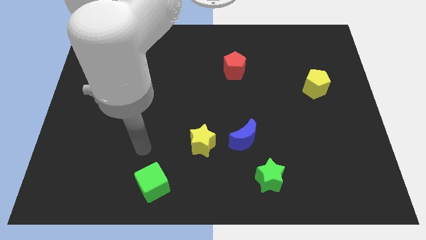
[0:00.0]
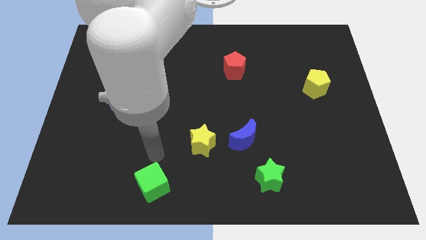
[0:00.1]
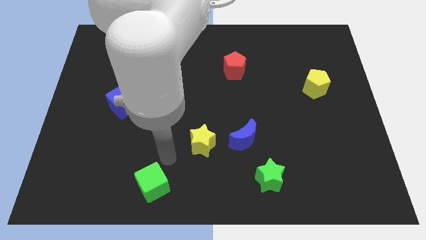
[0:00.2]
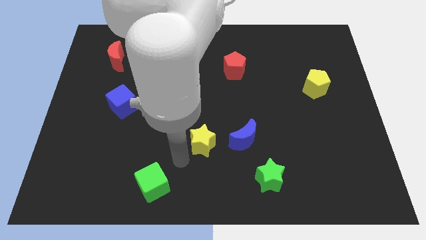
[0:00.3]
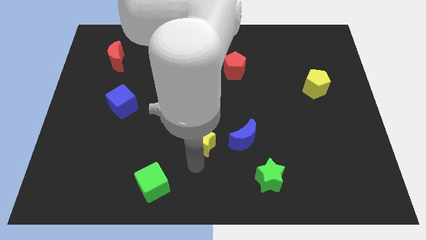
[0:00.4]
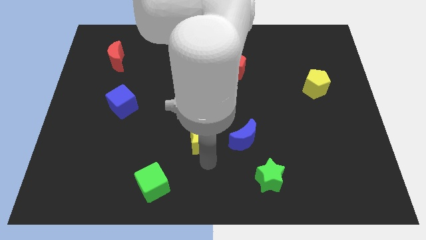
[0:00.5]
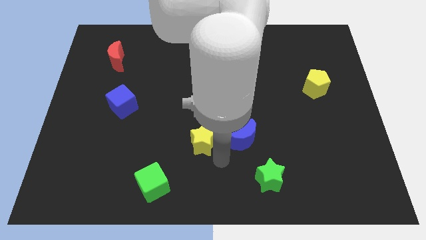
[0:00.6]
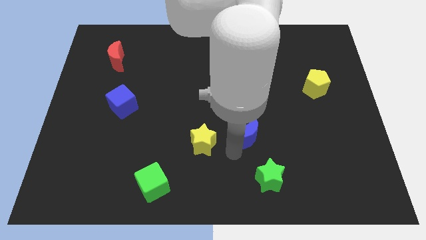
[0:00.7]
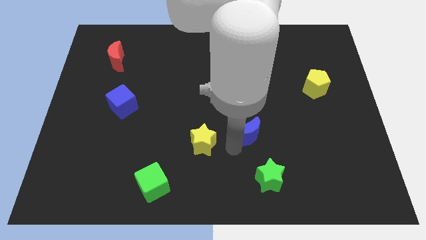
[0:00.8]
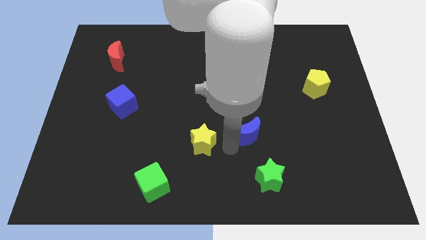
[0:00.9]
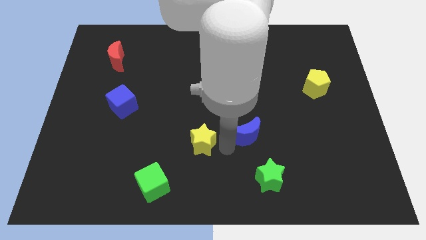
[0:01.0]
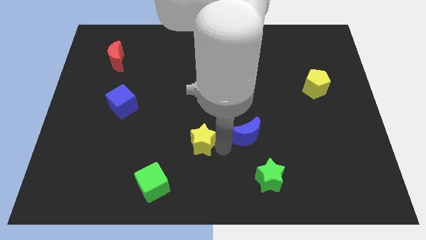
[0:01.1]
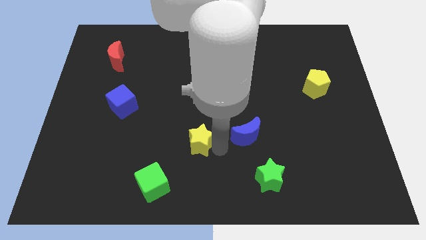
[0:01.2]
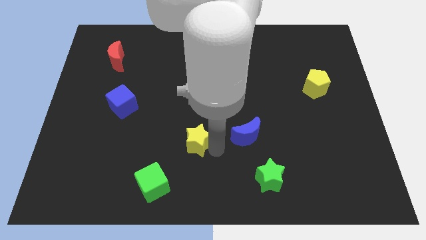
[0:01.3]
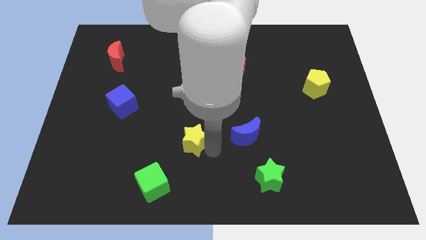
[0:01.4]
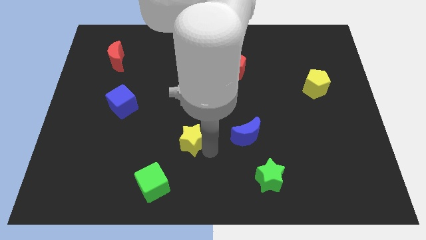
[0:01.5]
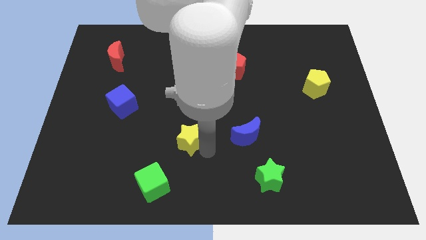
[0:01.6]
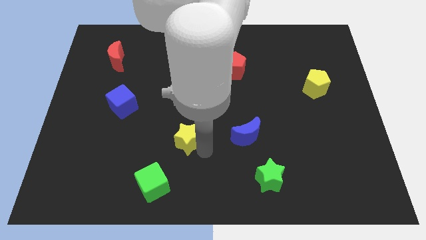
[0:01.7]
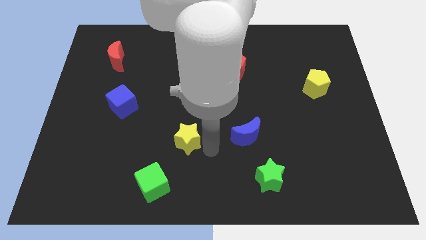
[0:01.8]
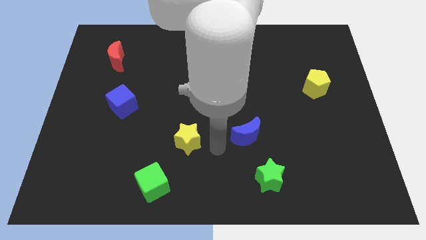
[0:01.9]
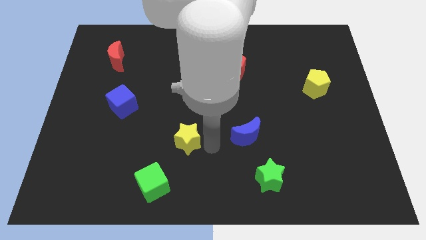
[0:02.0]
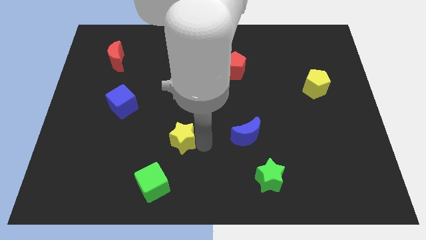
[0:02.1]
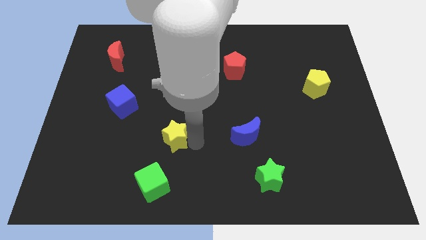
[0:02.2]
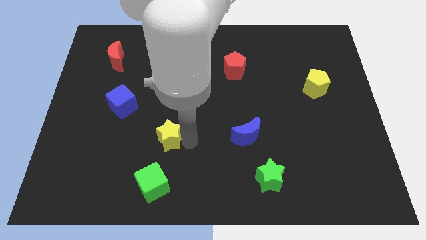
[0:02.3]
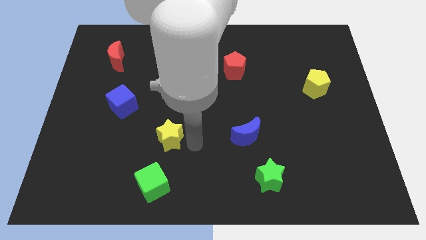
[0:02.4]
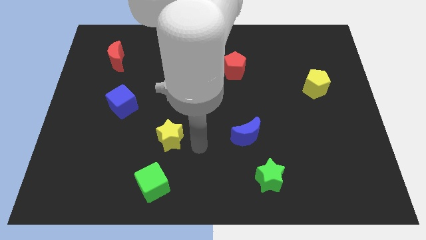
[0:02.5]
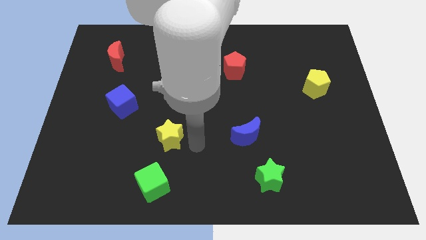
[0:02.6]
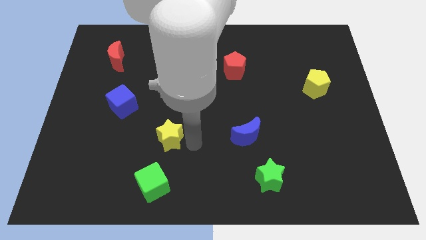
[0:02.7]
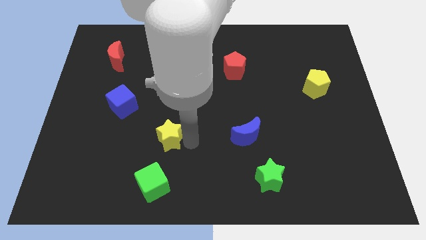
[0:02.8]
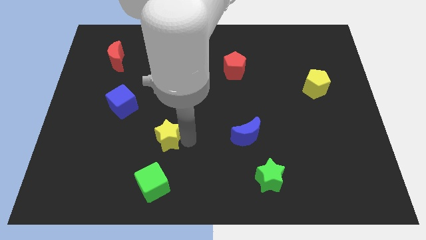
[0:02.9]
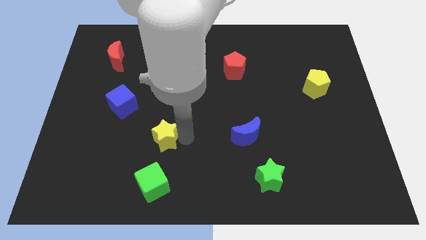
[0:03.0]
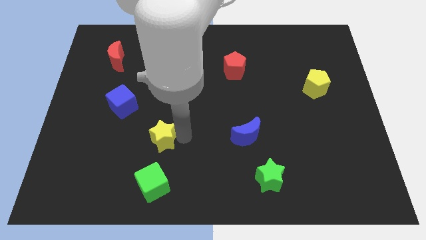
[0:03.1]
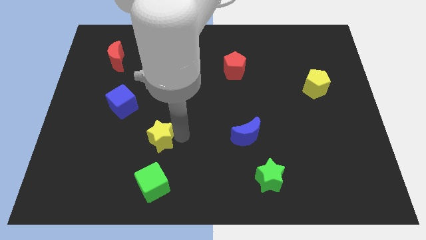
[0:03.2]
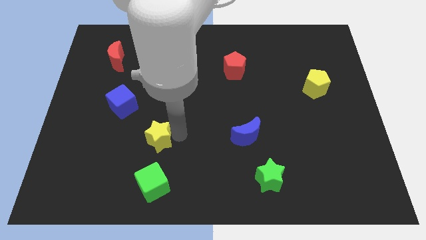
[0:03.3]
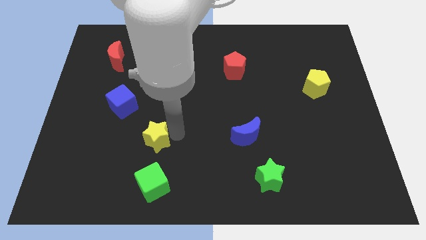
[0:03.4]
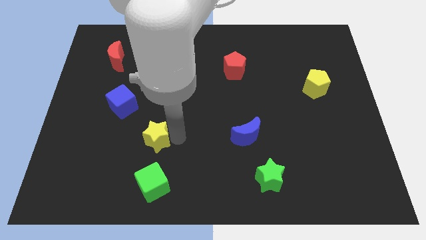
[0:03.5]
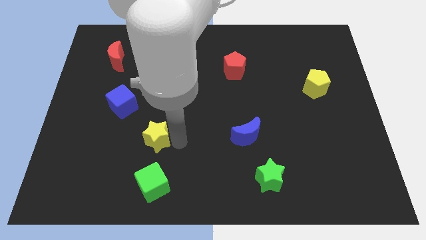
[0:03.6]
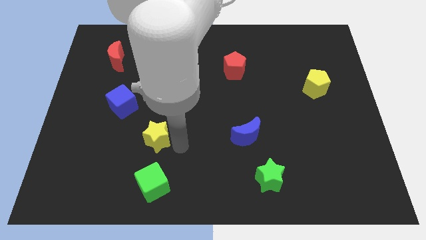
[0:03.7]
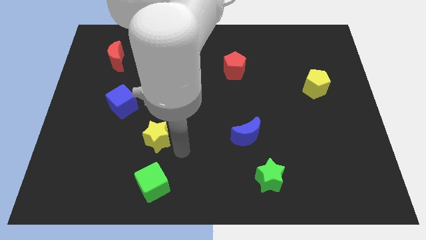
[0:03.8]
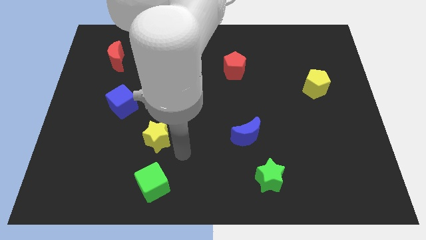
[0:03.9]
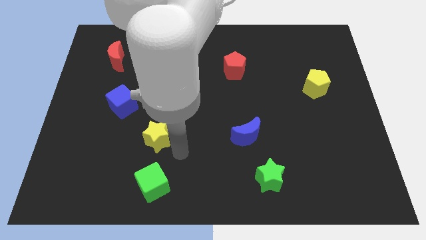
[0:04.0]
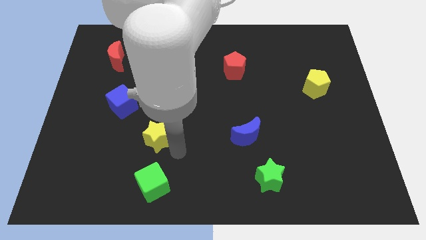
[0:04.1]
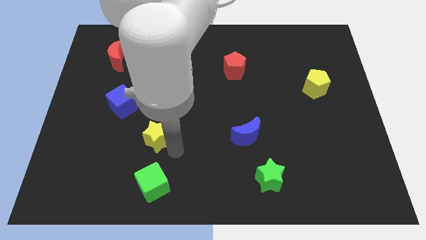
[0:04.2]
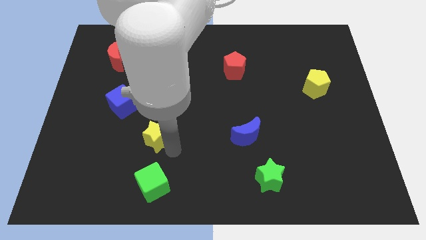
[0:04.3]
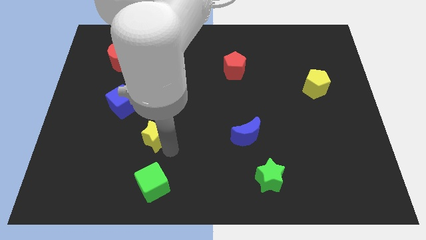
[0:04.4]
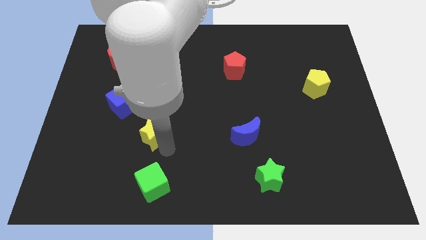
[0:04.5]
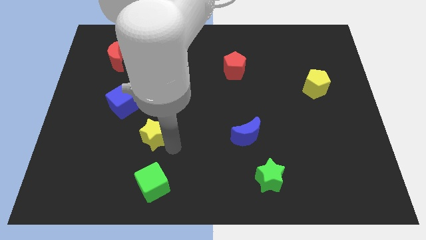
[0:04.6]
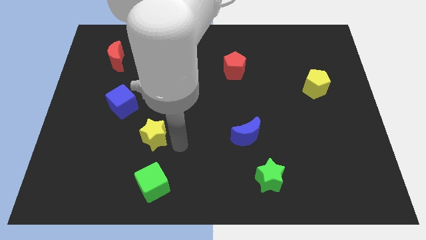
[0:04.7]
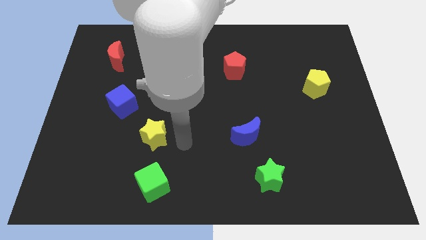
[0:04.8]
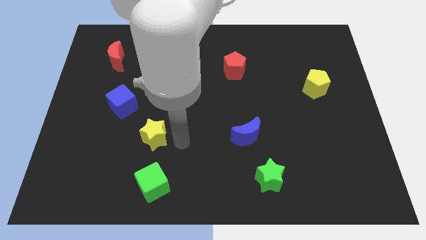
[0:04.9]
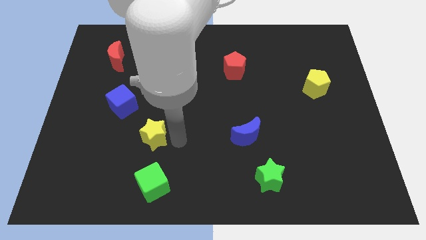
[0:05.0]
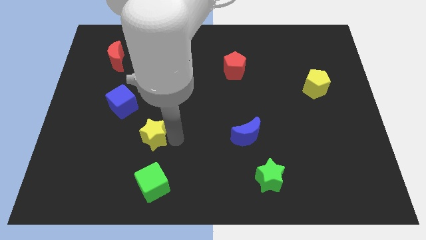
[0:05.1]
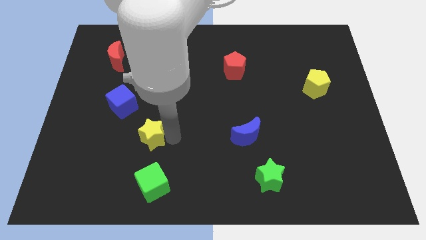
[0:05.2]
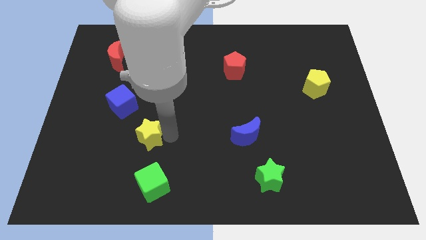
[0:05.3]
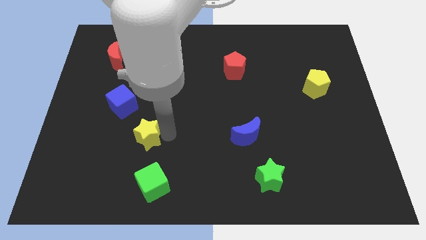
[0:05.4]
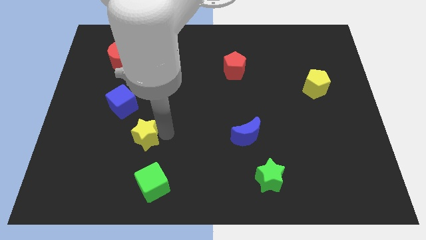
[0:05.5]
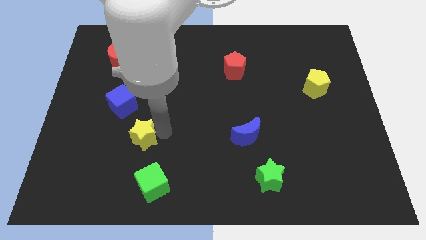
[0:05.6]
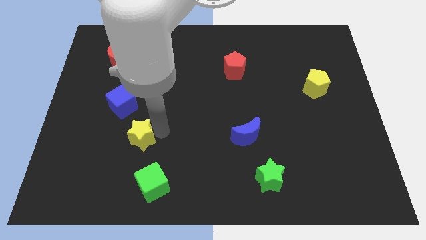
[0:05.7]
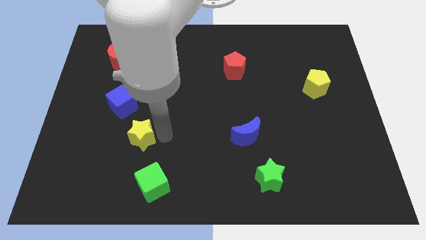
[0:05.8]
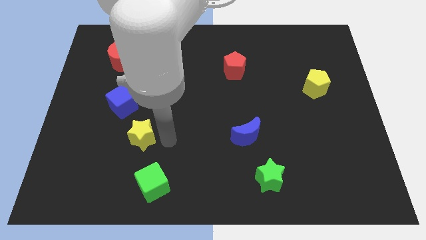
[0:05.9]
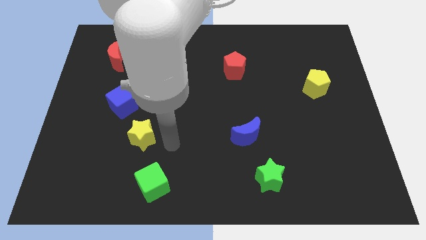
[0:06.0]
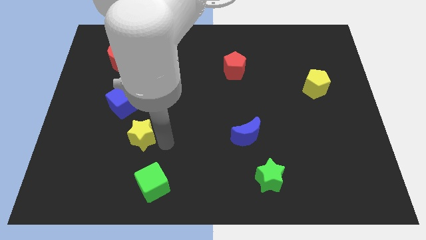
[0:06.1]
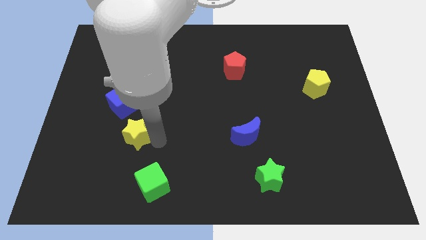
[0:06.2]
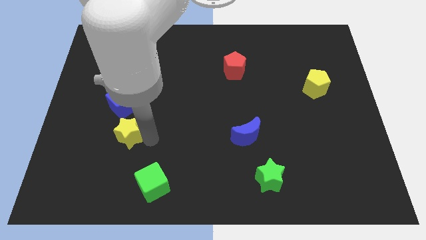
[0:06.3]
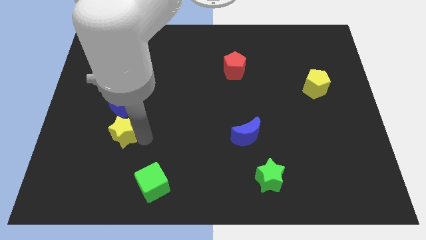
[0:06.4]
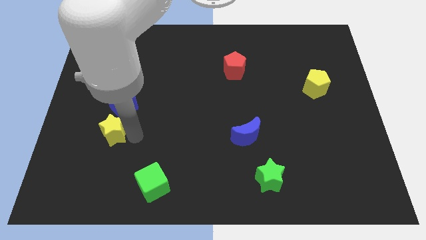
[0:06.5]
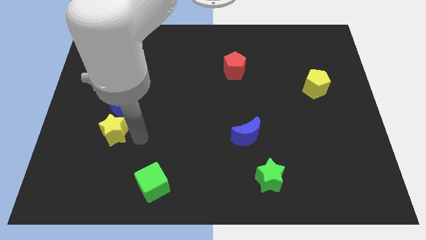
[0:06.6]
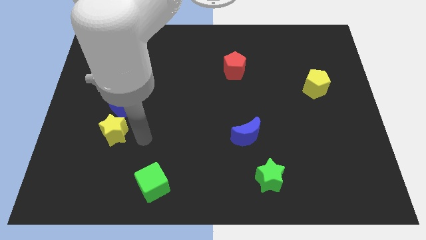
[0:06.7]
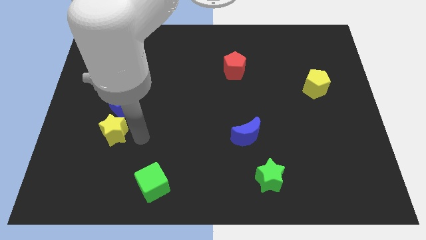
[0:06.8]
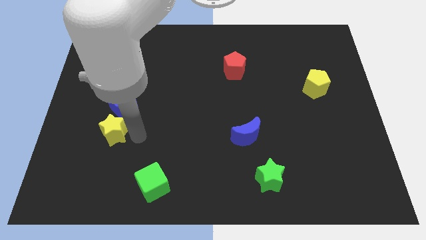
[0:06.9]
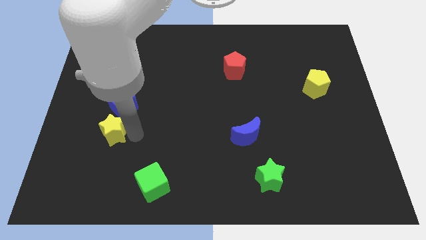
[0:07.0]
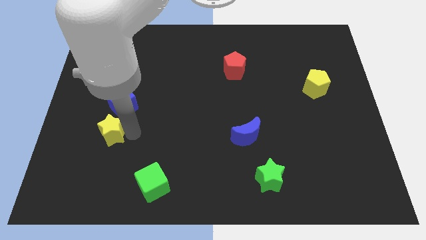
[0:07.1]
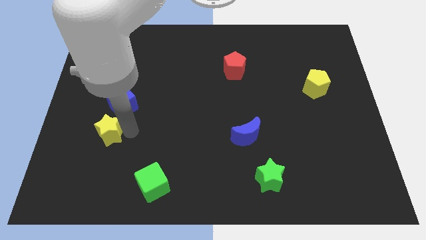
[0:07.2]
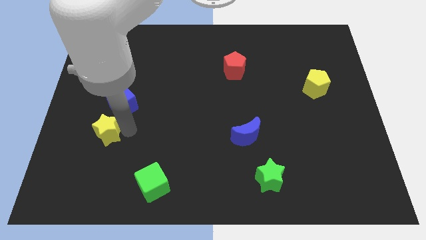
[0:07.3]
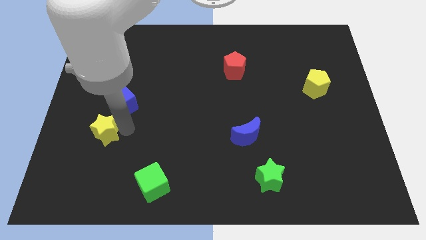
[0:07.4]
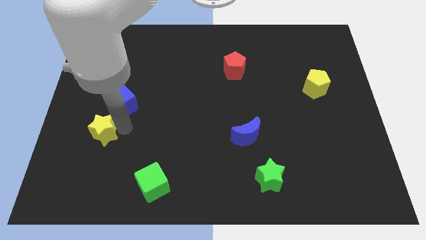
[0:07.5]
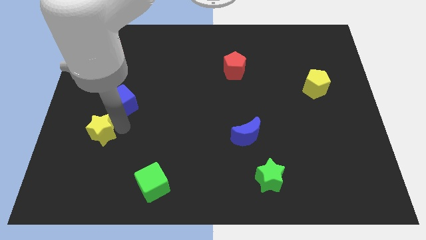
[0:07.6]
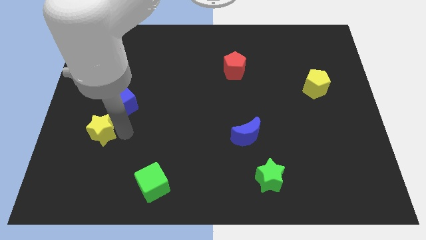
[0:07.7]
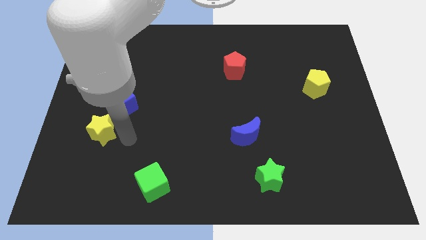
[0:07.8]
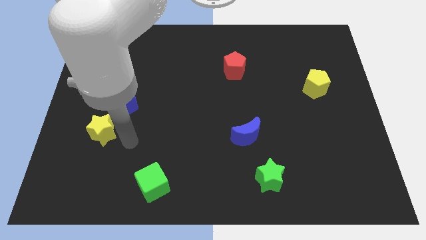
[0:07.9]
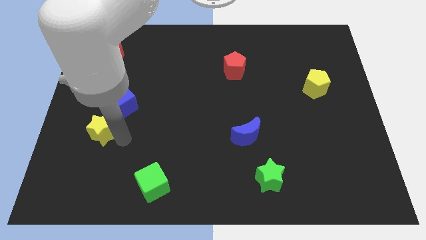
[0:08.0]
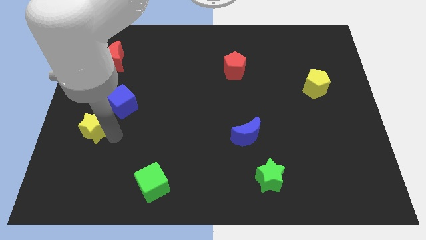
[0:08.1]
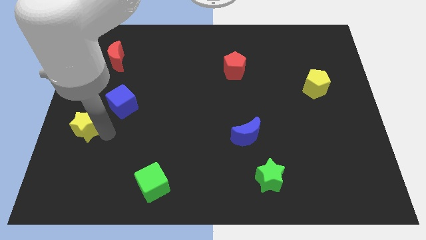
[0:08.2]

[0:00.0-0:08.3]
slide the yellow star to the left side of the board
